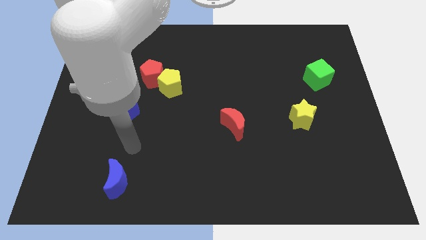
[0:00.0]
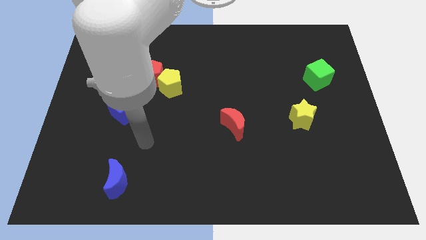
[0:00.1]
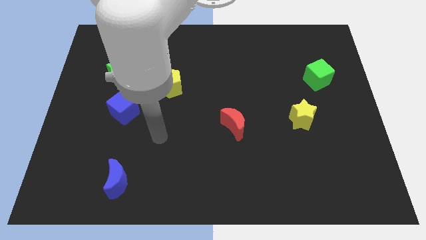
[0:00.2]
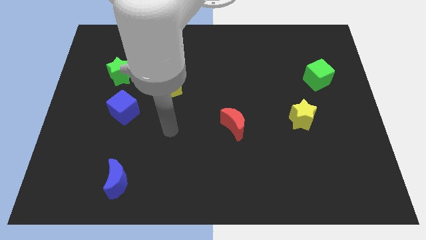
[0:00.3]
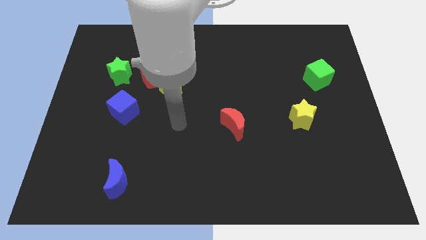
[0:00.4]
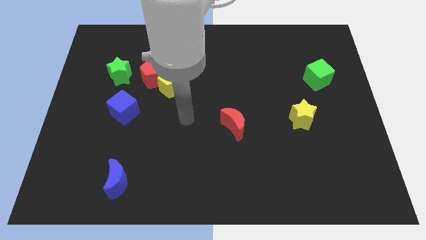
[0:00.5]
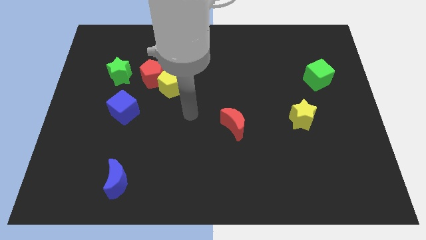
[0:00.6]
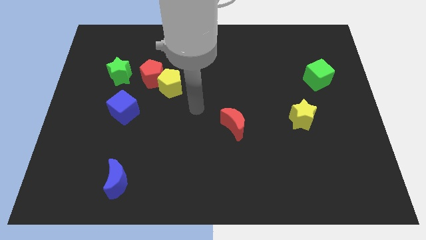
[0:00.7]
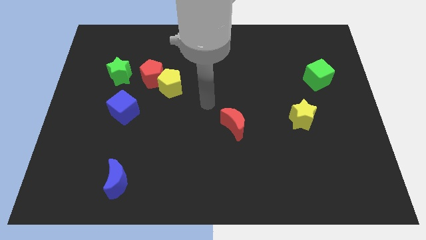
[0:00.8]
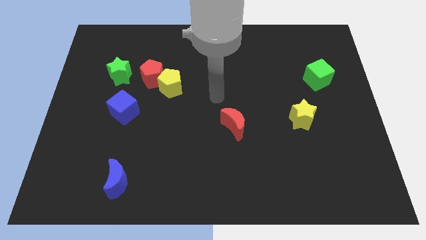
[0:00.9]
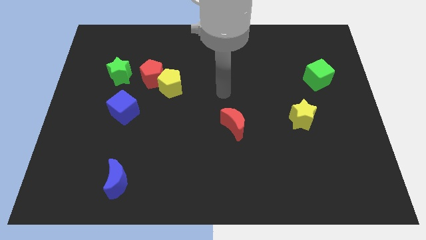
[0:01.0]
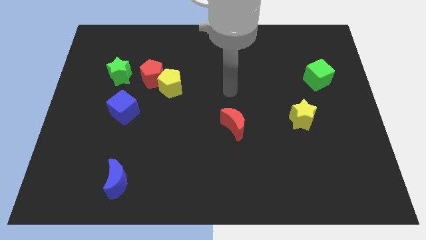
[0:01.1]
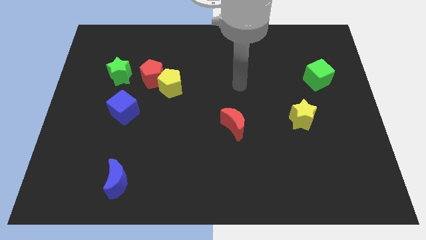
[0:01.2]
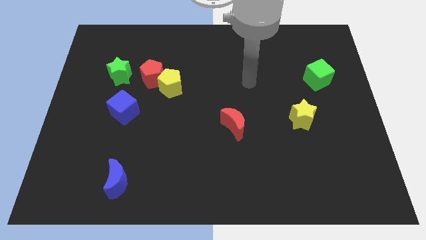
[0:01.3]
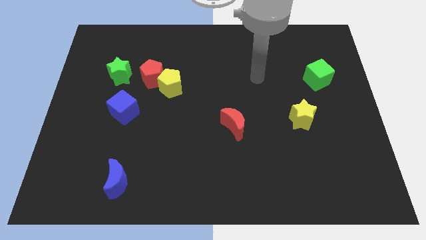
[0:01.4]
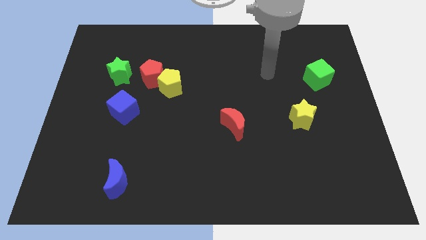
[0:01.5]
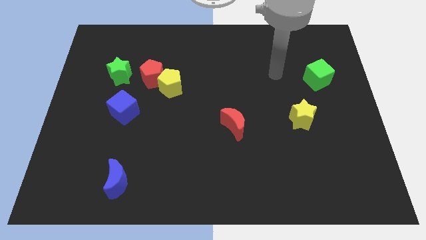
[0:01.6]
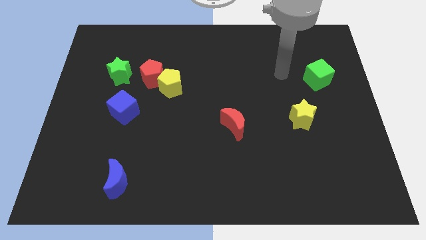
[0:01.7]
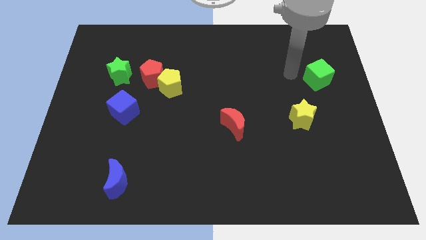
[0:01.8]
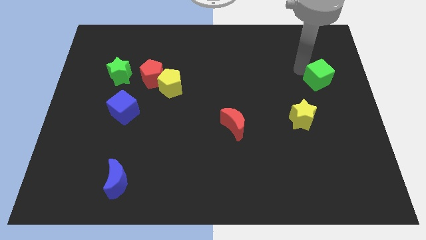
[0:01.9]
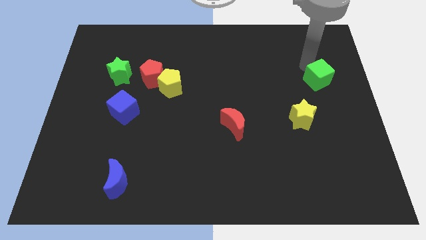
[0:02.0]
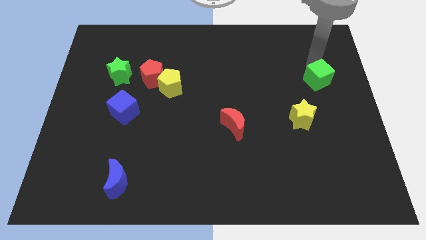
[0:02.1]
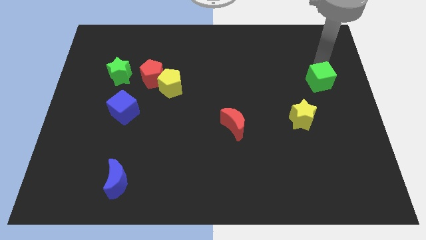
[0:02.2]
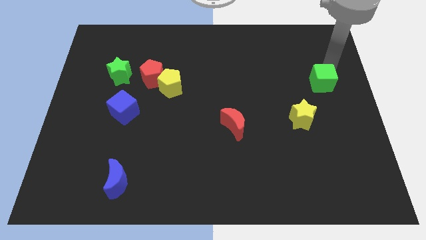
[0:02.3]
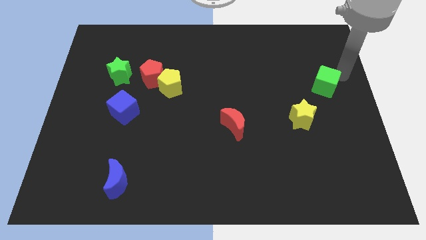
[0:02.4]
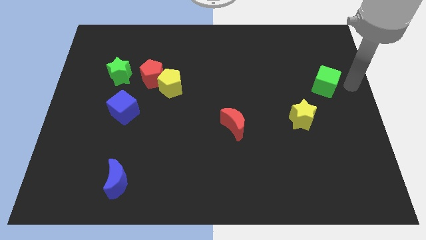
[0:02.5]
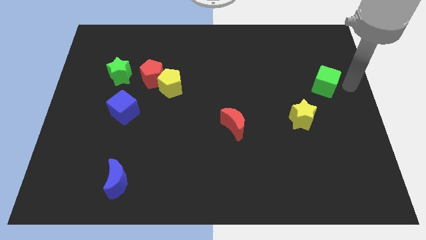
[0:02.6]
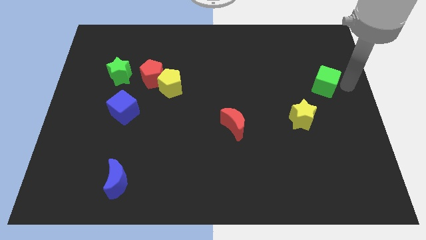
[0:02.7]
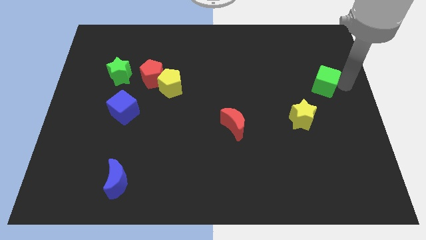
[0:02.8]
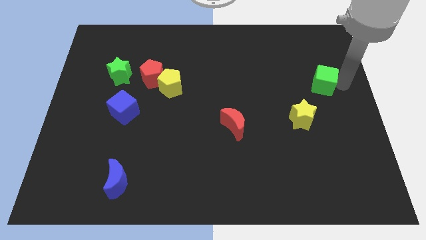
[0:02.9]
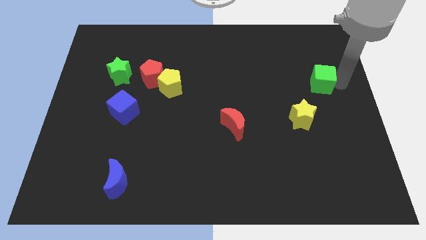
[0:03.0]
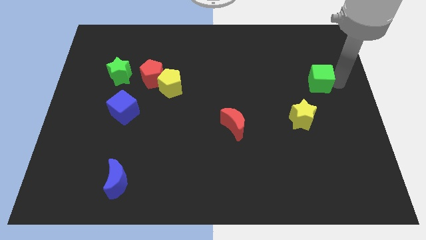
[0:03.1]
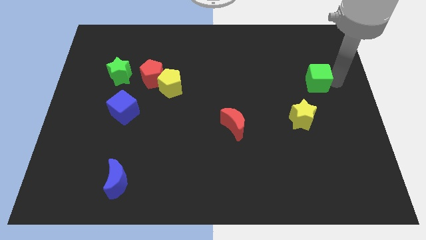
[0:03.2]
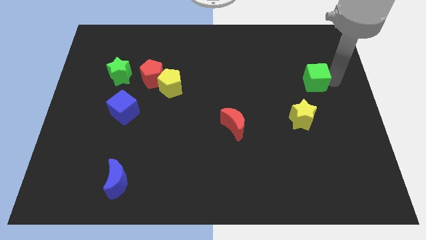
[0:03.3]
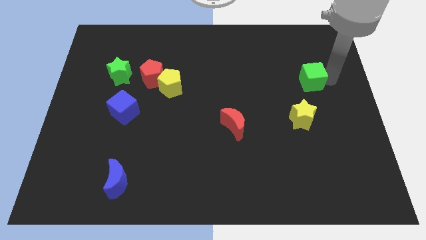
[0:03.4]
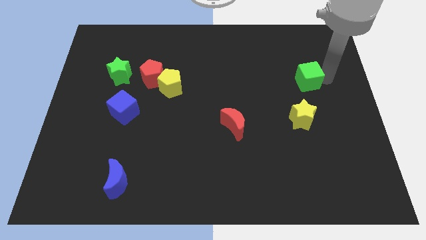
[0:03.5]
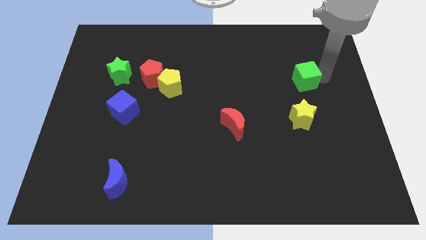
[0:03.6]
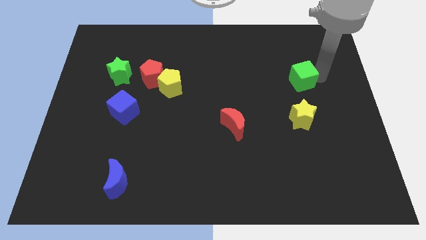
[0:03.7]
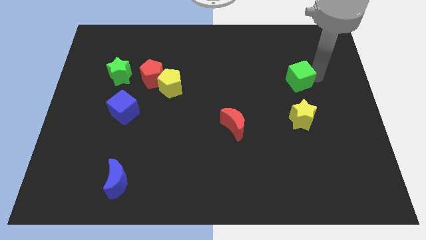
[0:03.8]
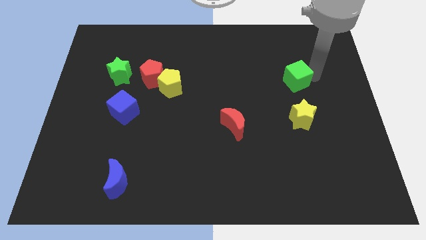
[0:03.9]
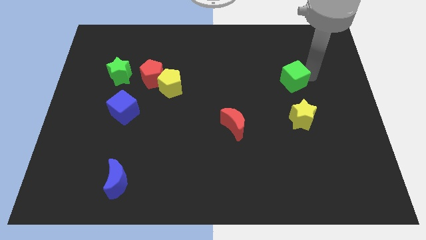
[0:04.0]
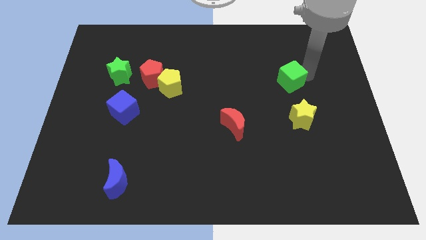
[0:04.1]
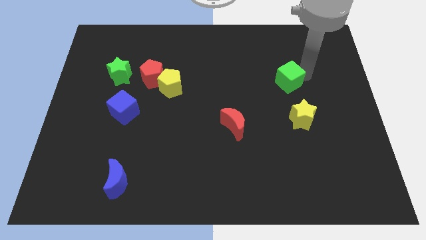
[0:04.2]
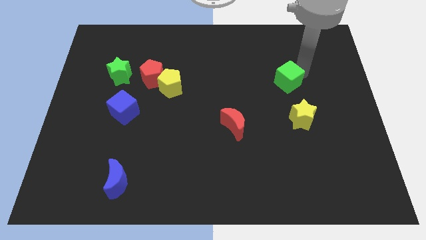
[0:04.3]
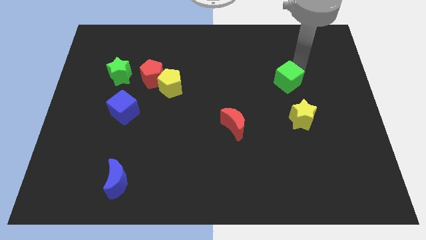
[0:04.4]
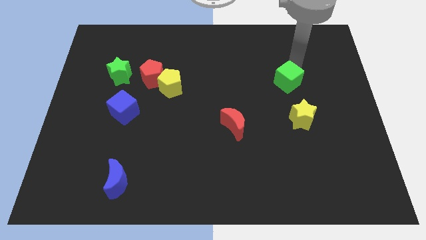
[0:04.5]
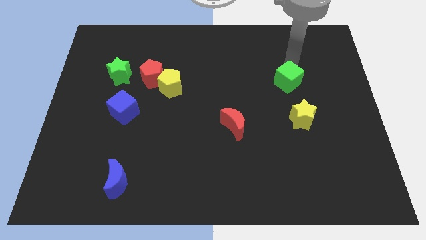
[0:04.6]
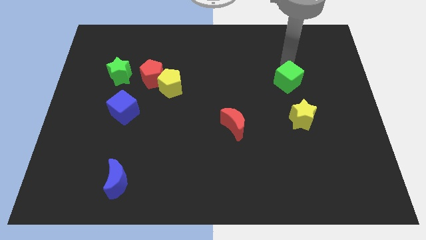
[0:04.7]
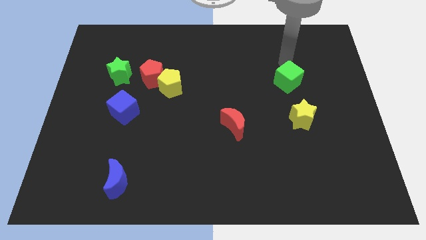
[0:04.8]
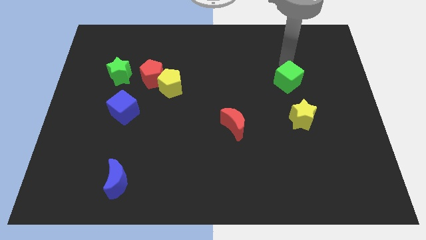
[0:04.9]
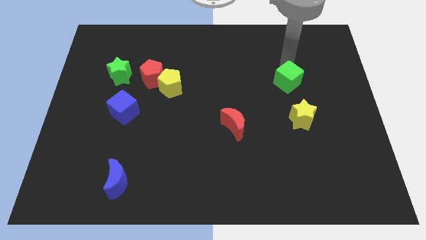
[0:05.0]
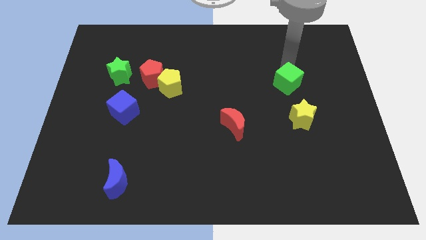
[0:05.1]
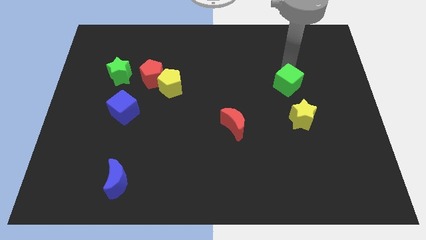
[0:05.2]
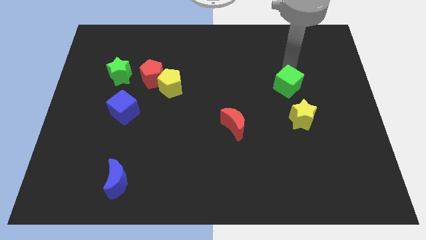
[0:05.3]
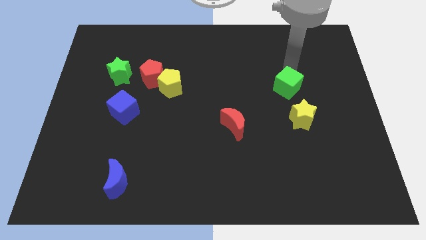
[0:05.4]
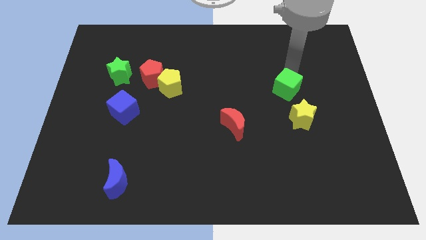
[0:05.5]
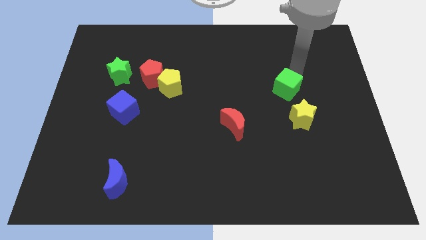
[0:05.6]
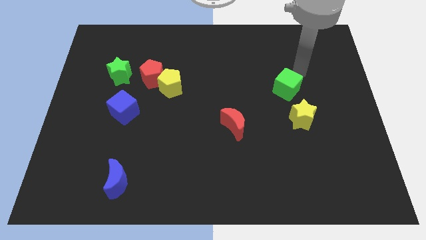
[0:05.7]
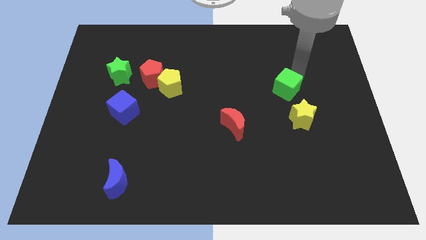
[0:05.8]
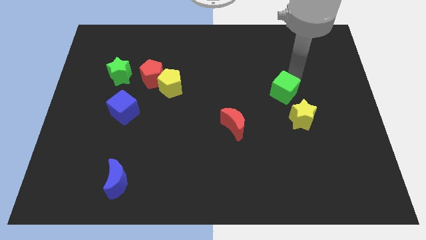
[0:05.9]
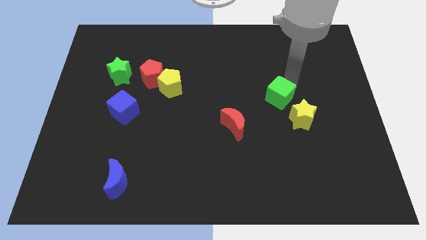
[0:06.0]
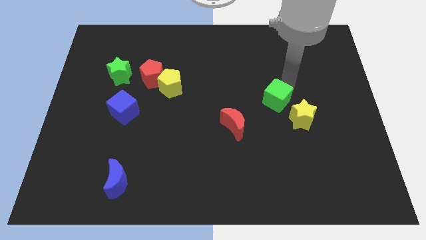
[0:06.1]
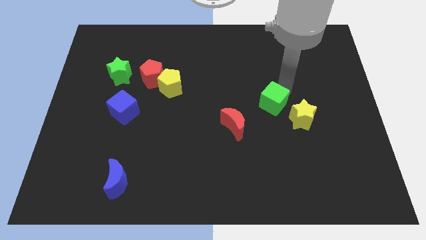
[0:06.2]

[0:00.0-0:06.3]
move the green cube to the left of the yellow star
